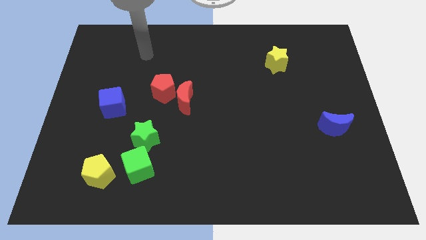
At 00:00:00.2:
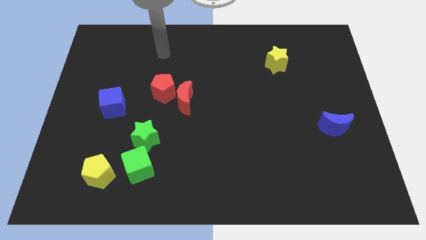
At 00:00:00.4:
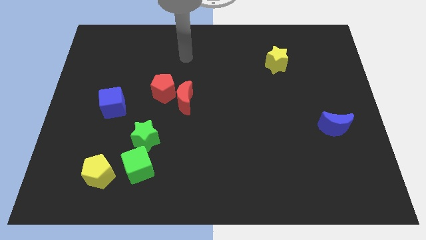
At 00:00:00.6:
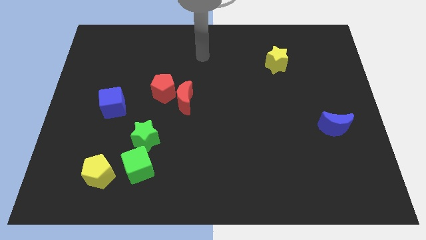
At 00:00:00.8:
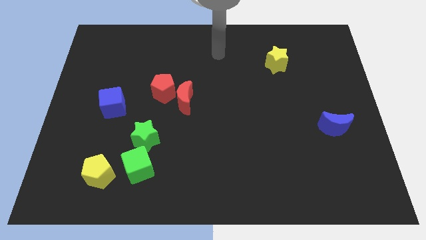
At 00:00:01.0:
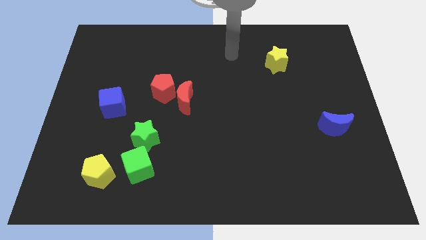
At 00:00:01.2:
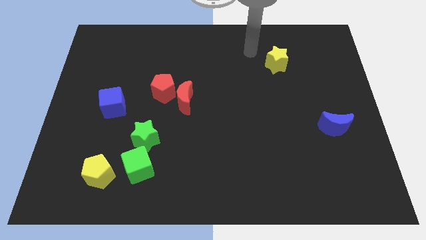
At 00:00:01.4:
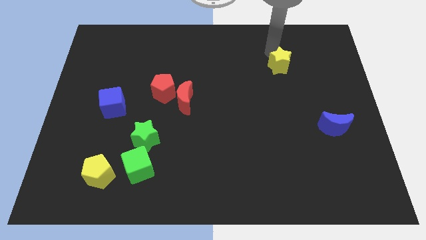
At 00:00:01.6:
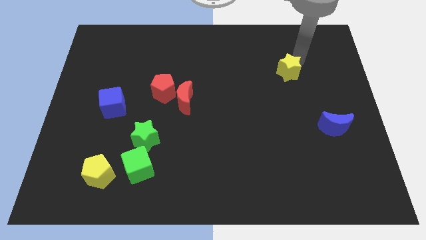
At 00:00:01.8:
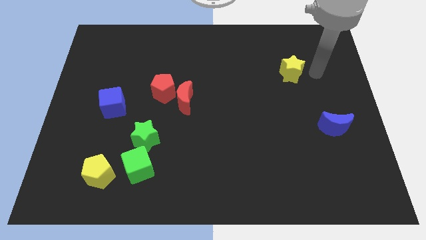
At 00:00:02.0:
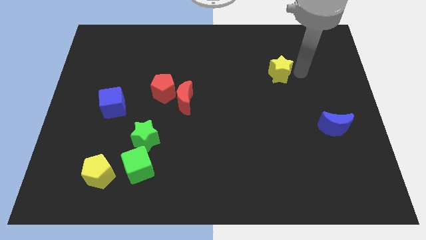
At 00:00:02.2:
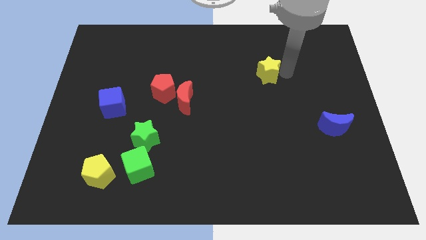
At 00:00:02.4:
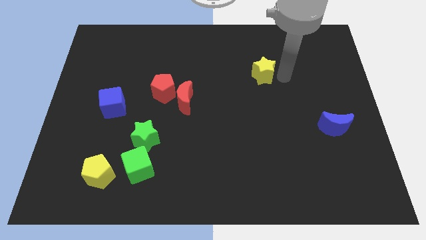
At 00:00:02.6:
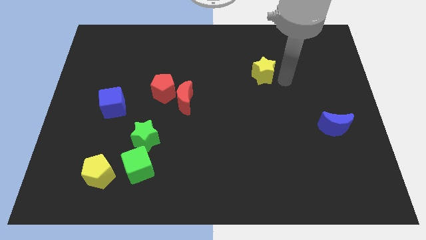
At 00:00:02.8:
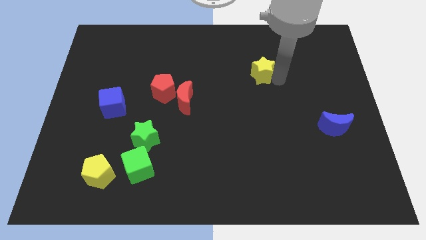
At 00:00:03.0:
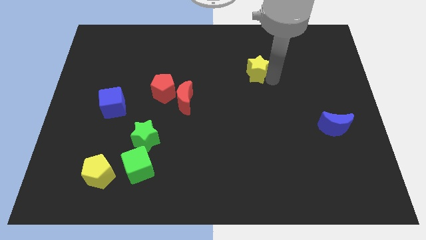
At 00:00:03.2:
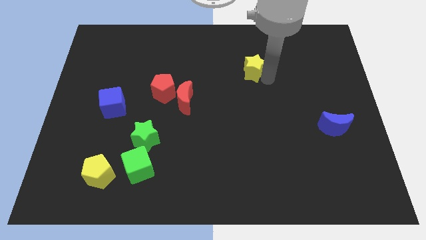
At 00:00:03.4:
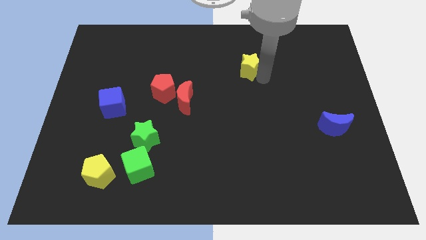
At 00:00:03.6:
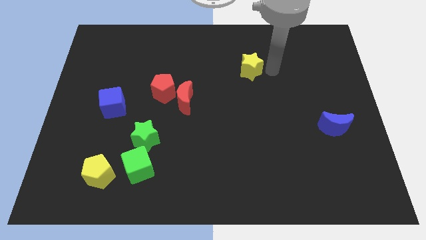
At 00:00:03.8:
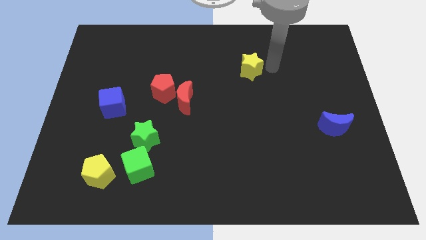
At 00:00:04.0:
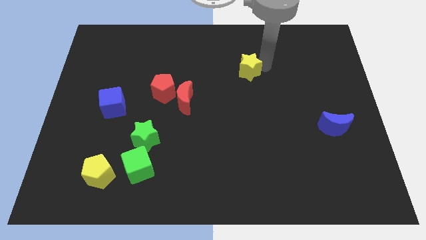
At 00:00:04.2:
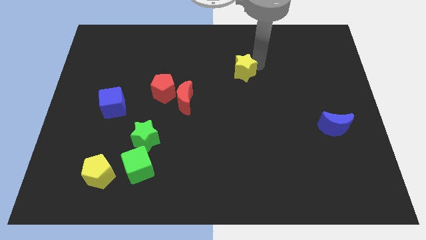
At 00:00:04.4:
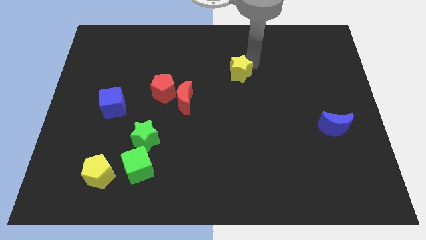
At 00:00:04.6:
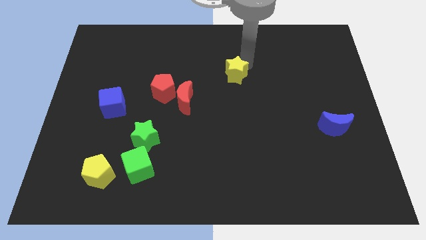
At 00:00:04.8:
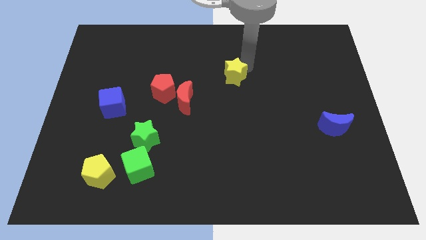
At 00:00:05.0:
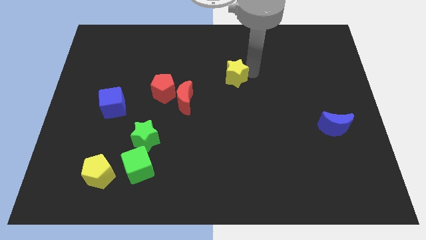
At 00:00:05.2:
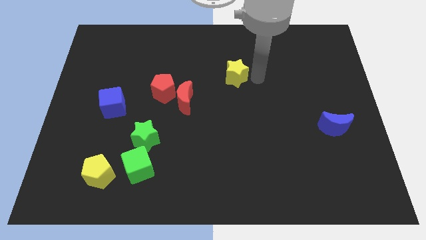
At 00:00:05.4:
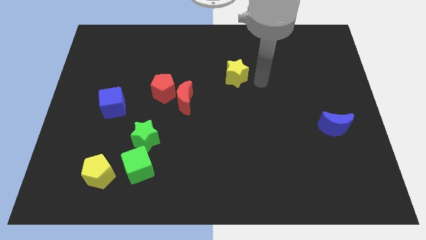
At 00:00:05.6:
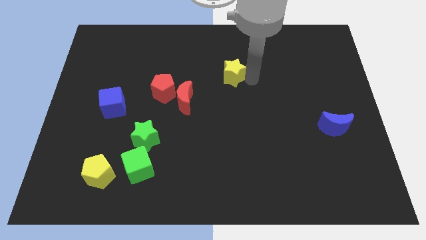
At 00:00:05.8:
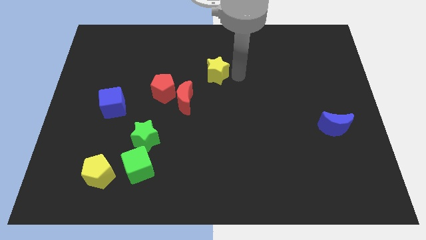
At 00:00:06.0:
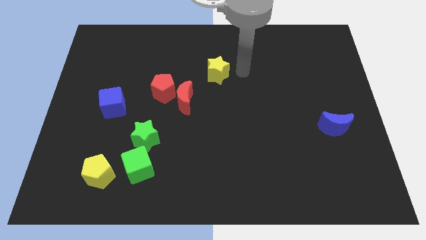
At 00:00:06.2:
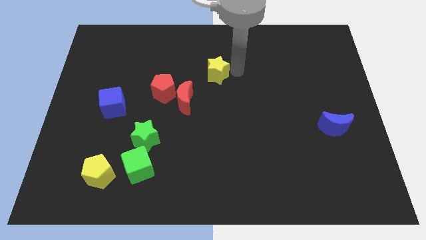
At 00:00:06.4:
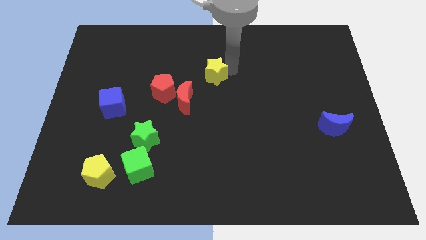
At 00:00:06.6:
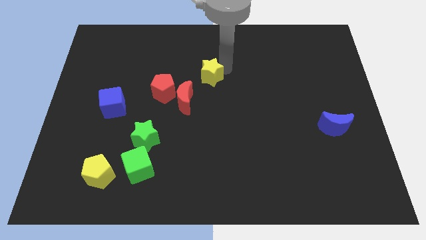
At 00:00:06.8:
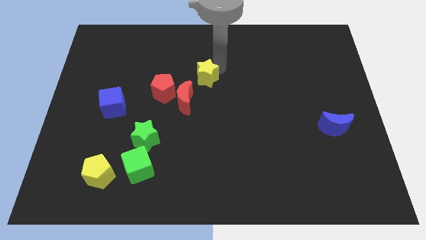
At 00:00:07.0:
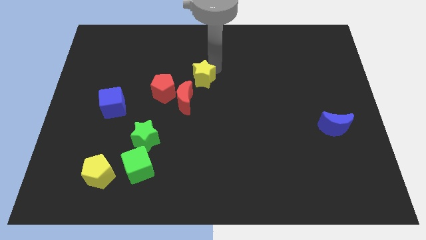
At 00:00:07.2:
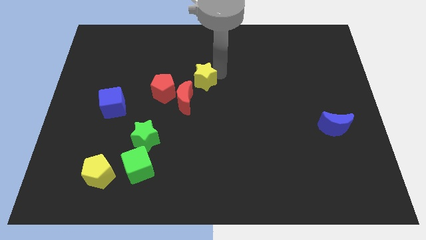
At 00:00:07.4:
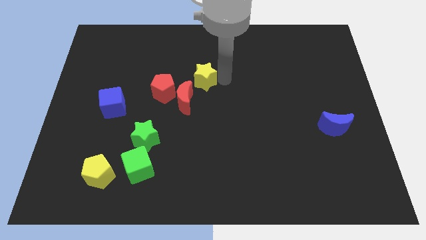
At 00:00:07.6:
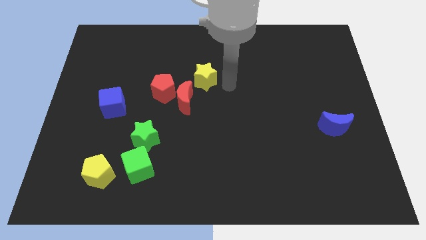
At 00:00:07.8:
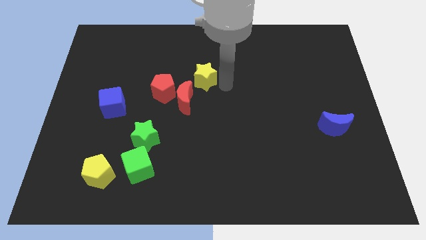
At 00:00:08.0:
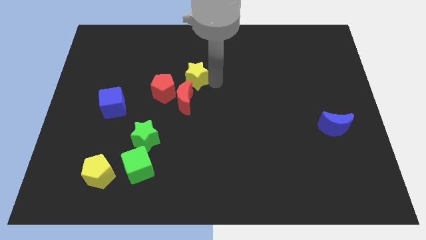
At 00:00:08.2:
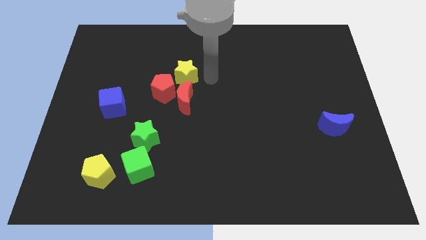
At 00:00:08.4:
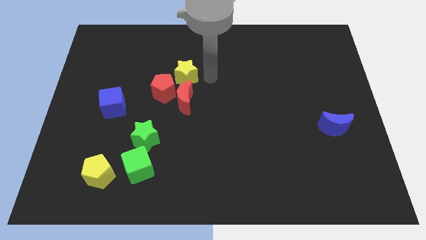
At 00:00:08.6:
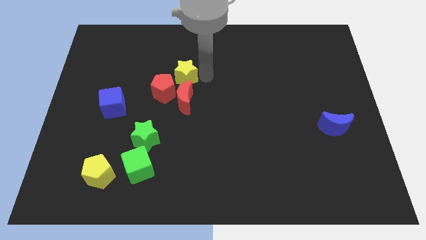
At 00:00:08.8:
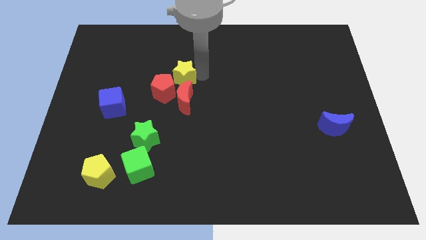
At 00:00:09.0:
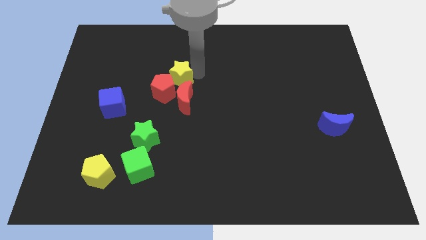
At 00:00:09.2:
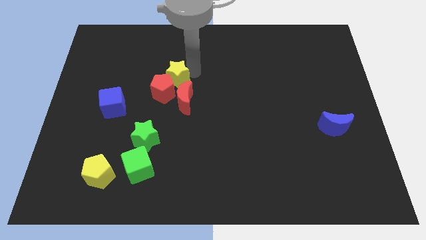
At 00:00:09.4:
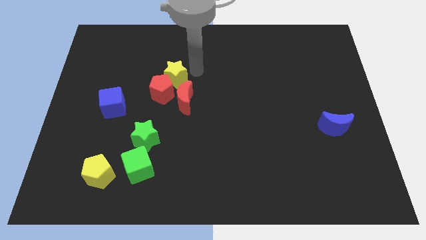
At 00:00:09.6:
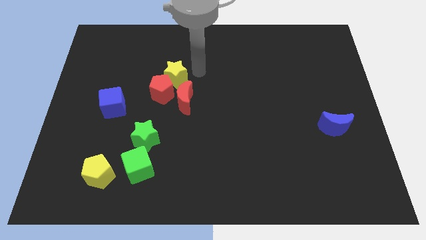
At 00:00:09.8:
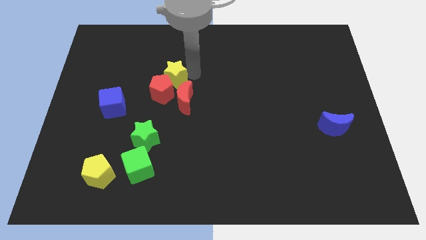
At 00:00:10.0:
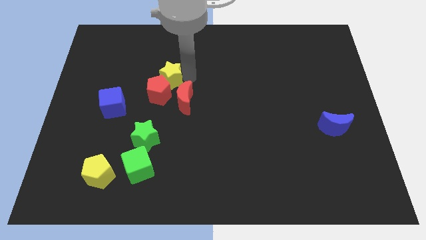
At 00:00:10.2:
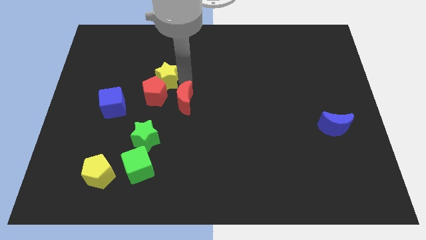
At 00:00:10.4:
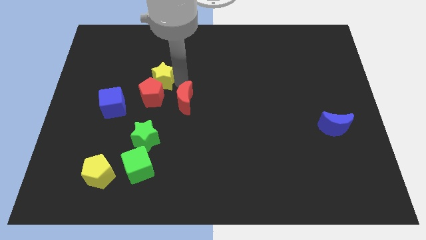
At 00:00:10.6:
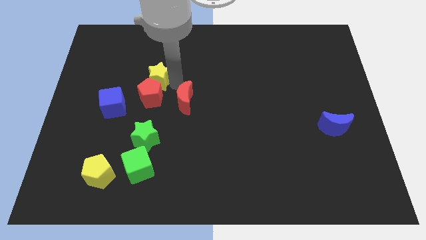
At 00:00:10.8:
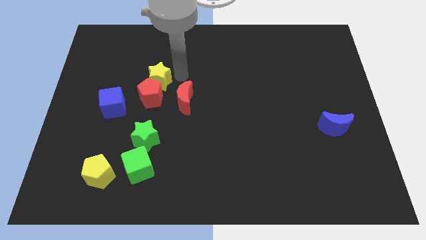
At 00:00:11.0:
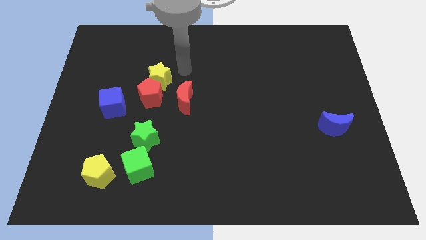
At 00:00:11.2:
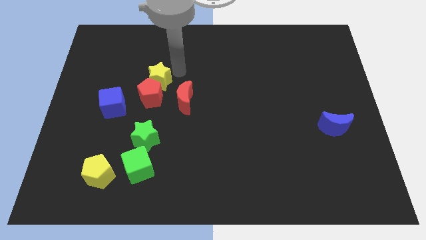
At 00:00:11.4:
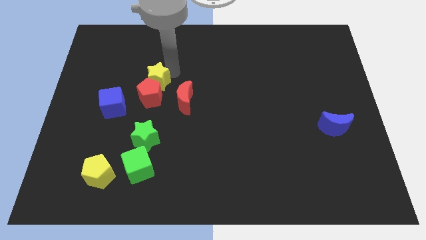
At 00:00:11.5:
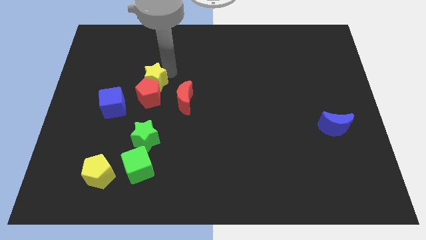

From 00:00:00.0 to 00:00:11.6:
slide the yellow star to the top right side of the blue cube

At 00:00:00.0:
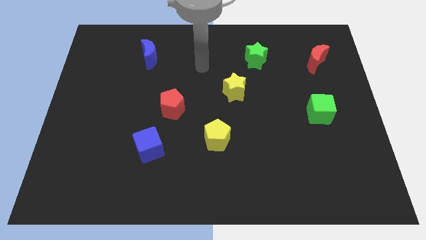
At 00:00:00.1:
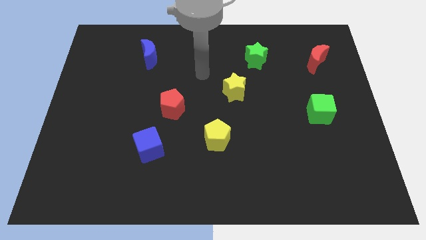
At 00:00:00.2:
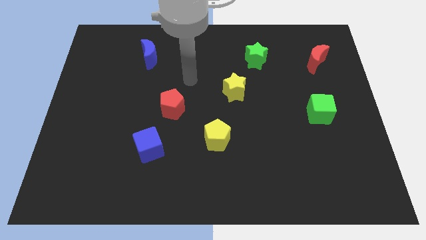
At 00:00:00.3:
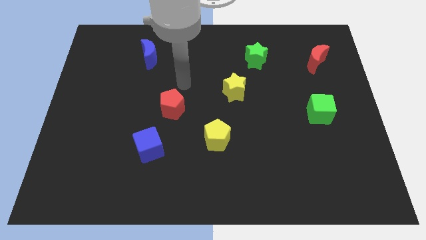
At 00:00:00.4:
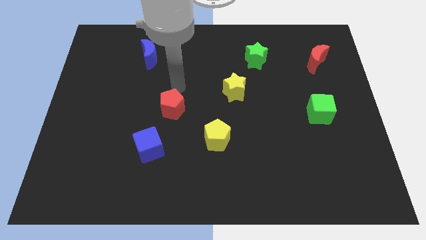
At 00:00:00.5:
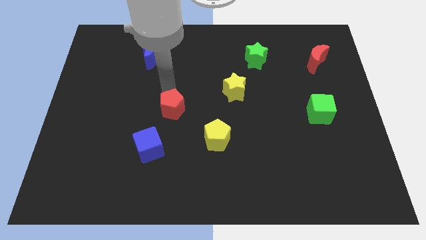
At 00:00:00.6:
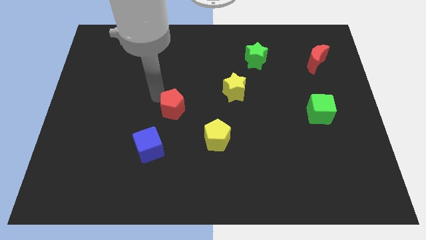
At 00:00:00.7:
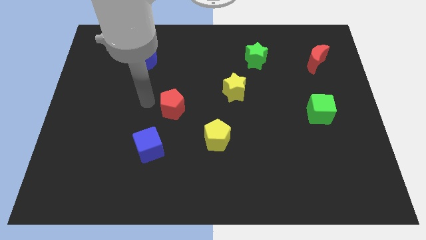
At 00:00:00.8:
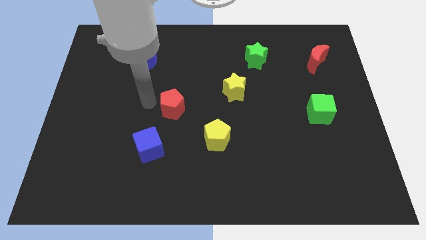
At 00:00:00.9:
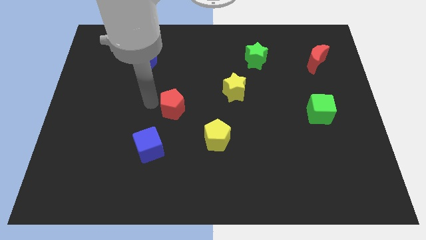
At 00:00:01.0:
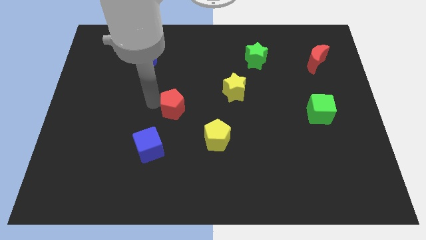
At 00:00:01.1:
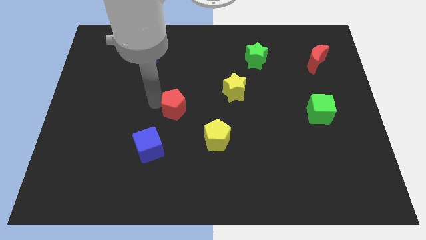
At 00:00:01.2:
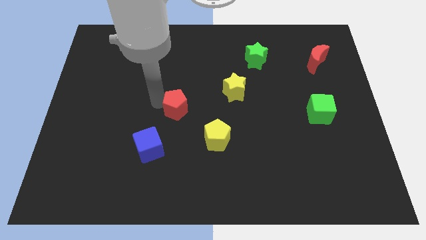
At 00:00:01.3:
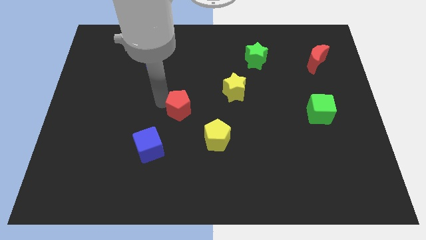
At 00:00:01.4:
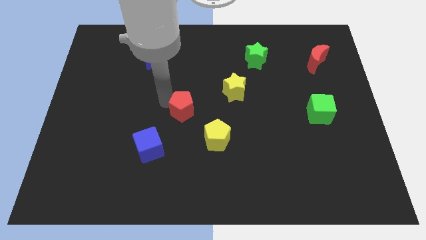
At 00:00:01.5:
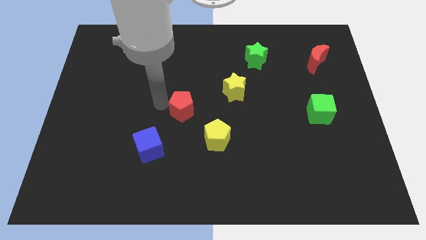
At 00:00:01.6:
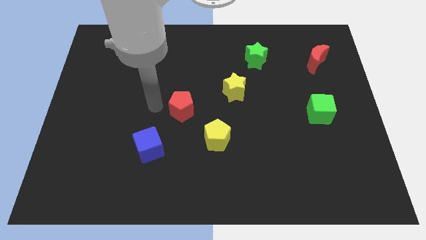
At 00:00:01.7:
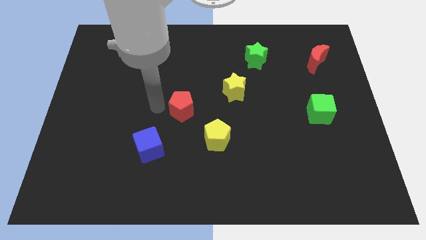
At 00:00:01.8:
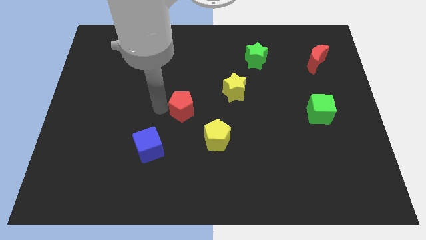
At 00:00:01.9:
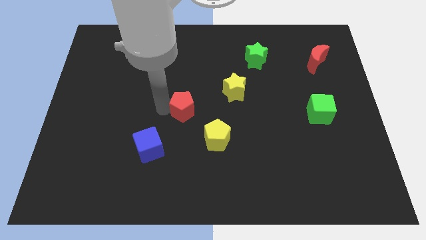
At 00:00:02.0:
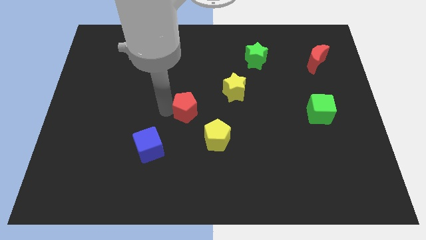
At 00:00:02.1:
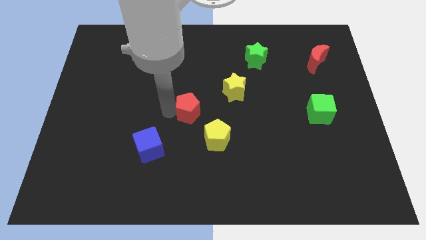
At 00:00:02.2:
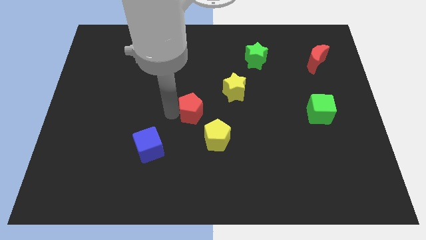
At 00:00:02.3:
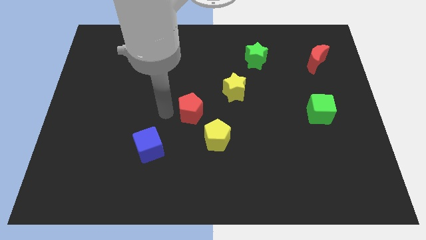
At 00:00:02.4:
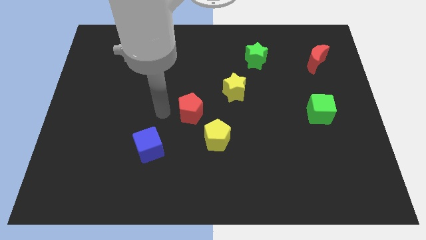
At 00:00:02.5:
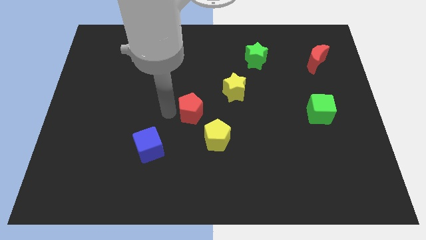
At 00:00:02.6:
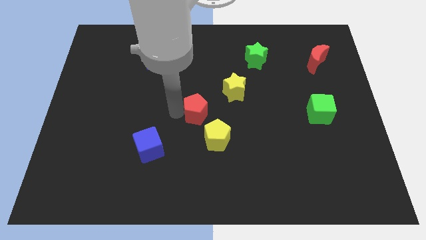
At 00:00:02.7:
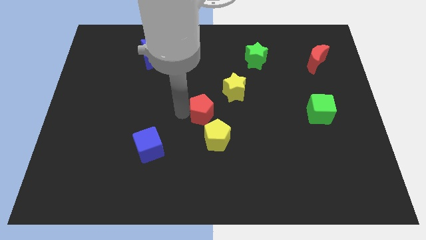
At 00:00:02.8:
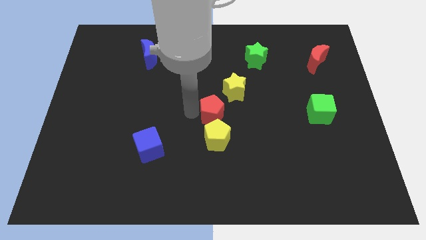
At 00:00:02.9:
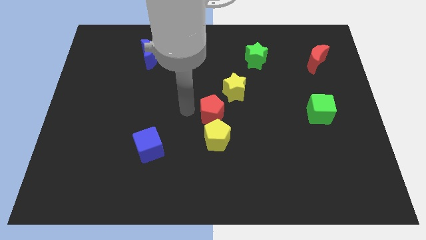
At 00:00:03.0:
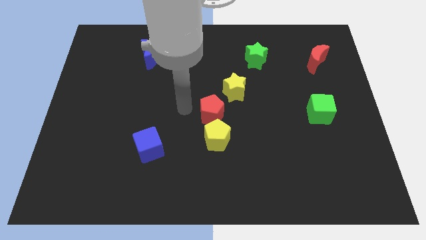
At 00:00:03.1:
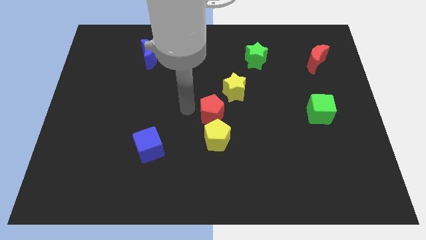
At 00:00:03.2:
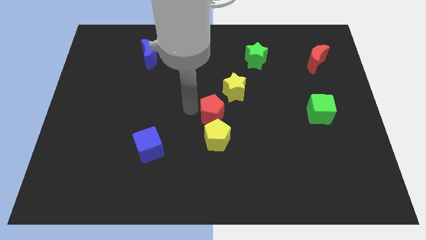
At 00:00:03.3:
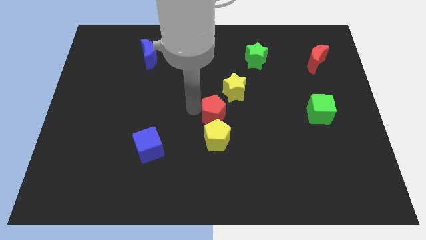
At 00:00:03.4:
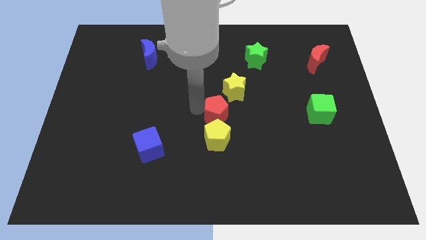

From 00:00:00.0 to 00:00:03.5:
put the red pentagon to the top right of the yellow pentagon
